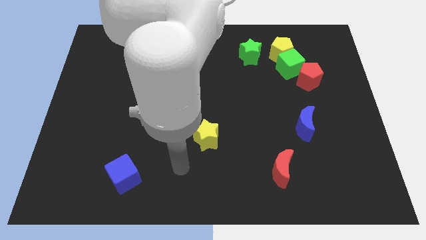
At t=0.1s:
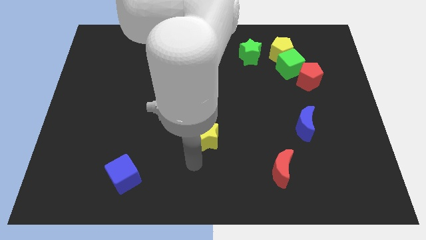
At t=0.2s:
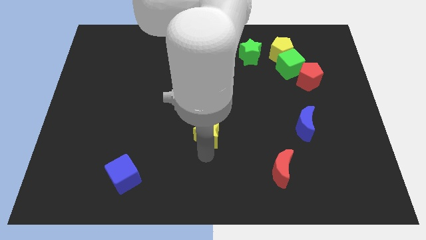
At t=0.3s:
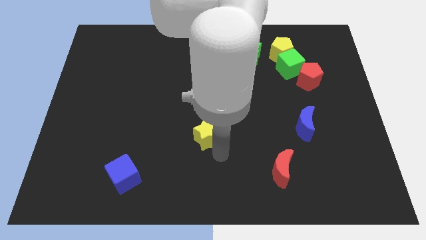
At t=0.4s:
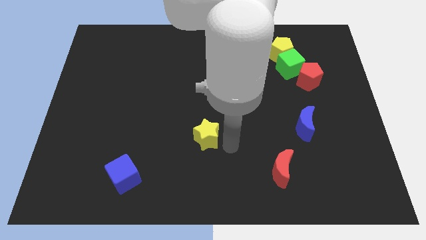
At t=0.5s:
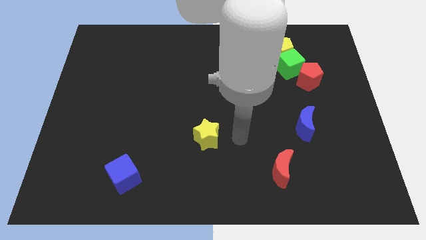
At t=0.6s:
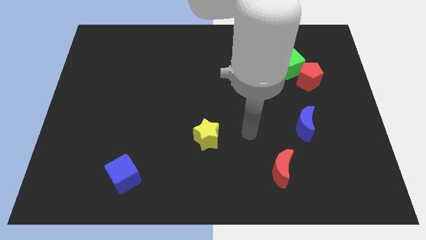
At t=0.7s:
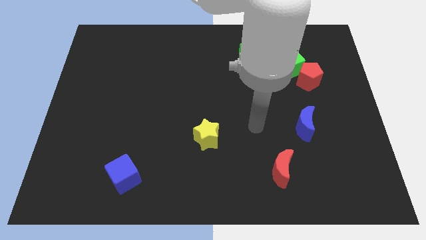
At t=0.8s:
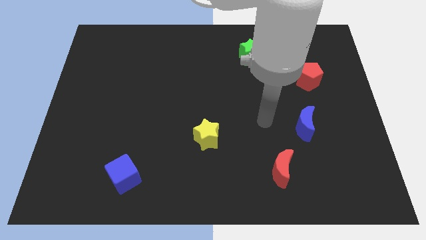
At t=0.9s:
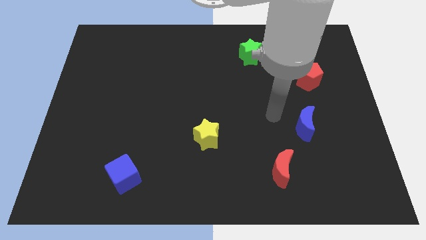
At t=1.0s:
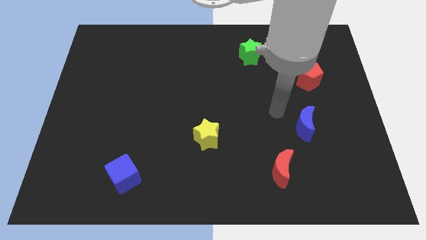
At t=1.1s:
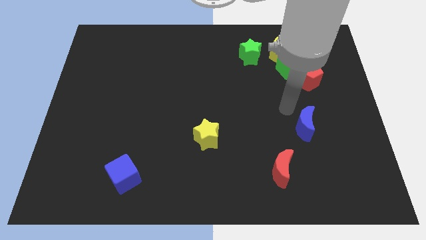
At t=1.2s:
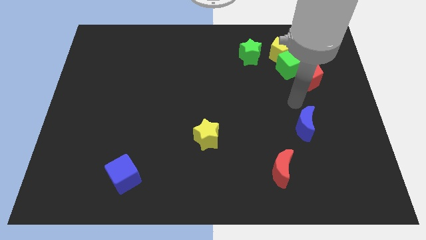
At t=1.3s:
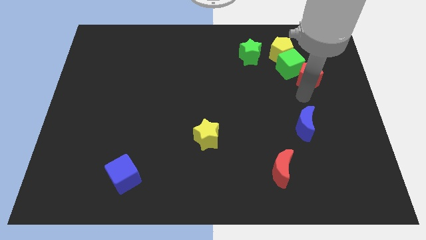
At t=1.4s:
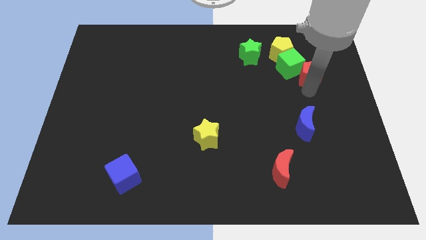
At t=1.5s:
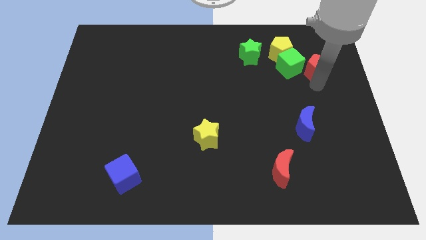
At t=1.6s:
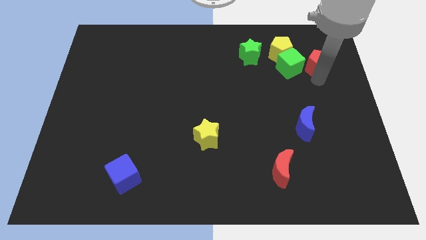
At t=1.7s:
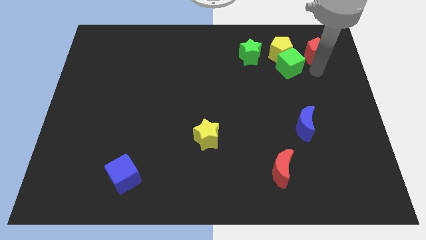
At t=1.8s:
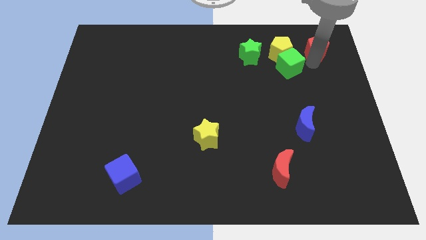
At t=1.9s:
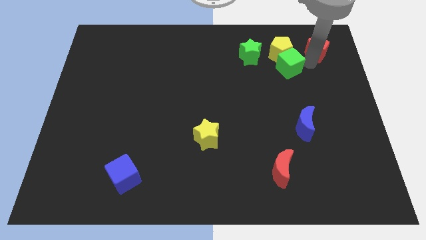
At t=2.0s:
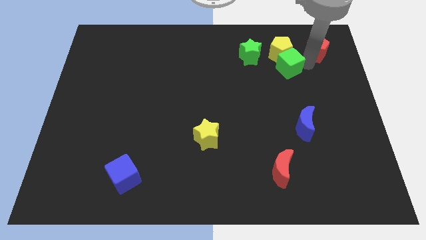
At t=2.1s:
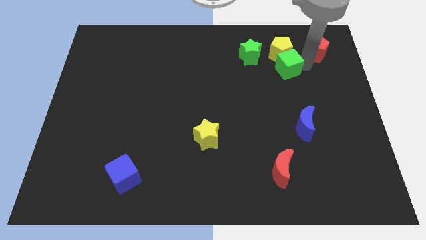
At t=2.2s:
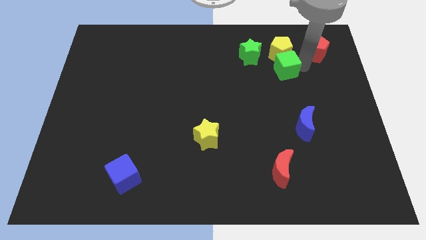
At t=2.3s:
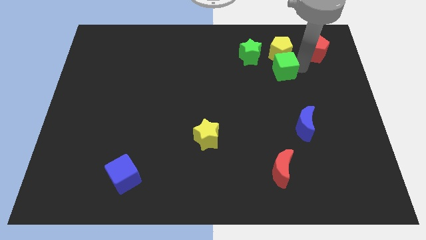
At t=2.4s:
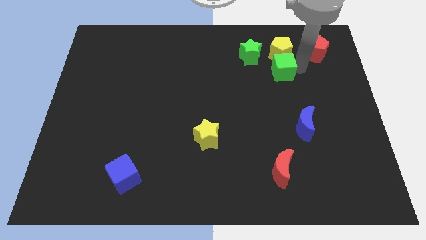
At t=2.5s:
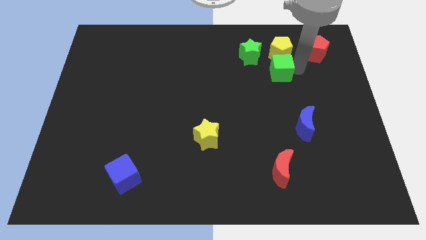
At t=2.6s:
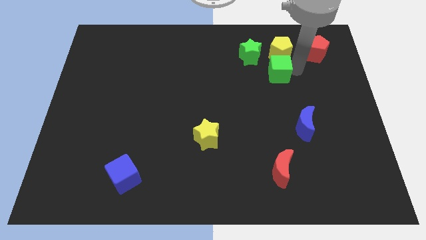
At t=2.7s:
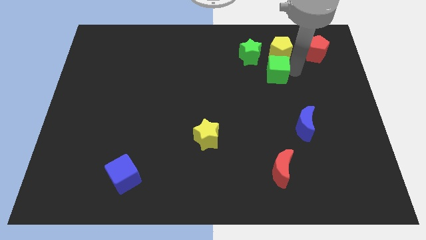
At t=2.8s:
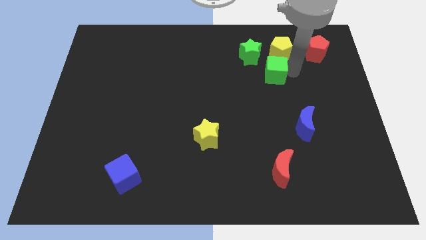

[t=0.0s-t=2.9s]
move the green cube away from the yellow pentagon and red pentagon

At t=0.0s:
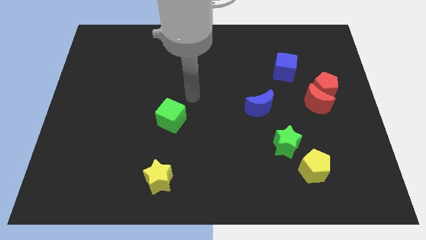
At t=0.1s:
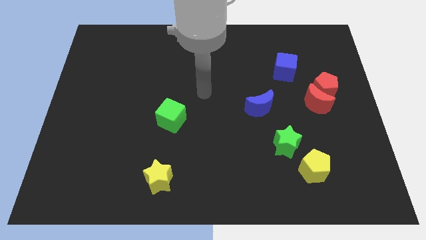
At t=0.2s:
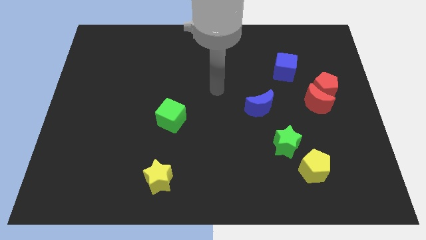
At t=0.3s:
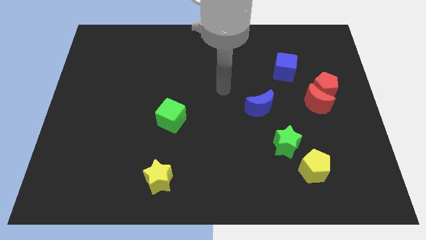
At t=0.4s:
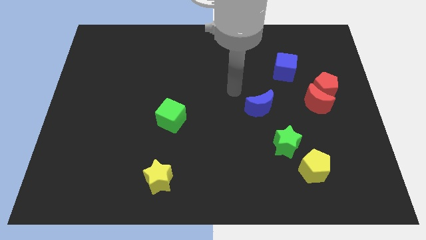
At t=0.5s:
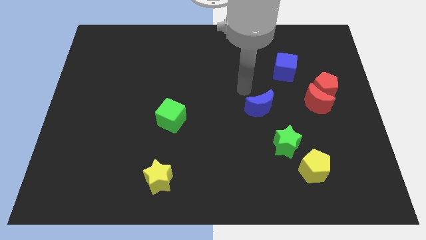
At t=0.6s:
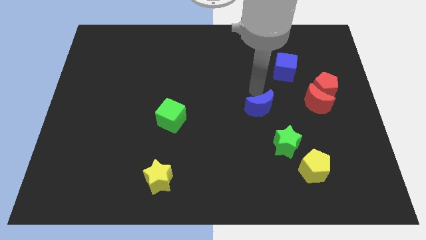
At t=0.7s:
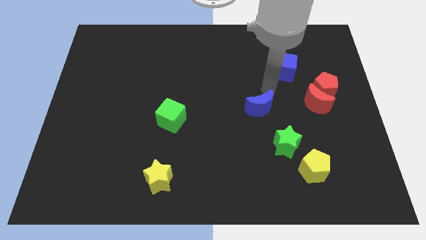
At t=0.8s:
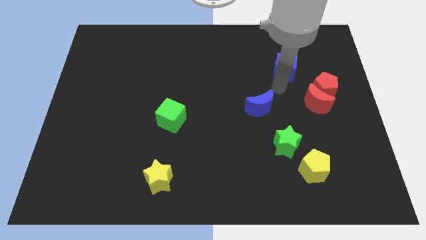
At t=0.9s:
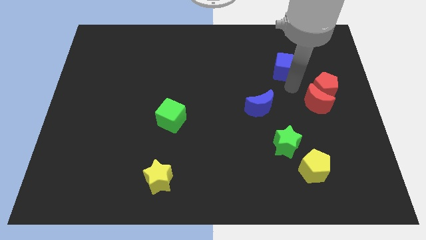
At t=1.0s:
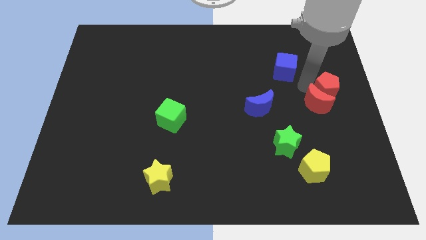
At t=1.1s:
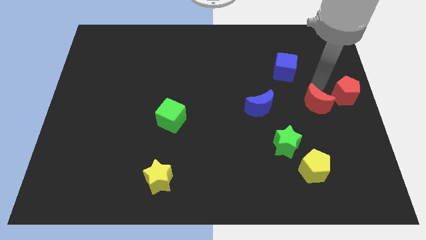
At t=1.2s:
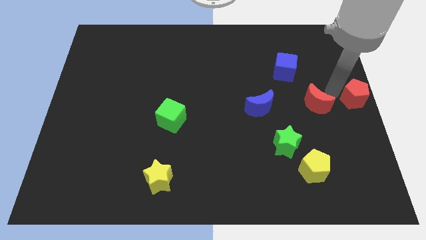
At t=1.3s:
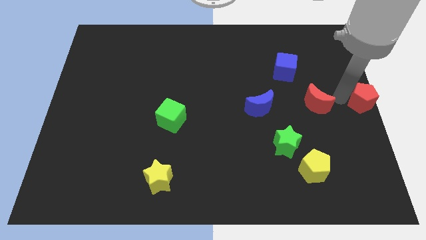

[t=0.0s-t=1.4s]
move the red moon away from the red pentagon

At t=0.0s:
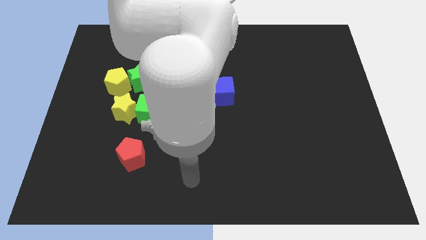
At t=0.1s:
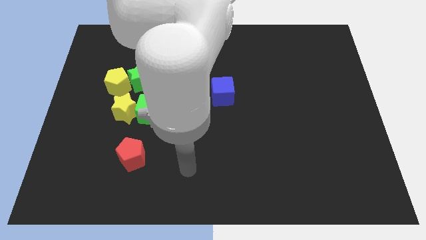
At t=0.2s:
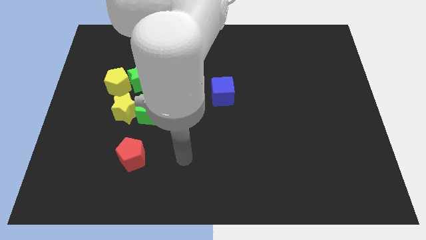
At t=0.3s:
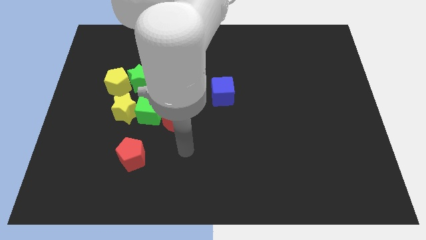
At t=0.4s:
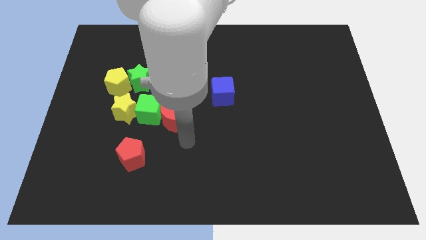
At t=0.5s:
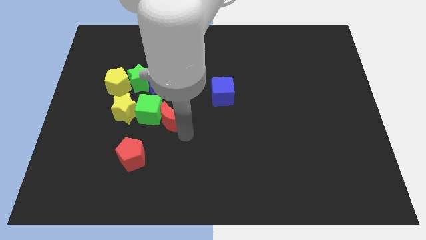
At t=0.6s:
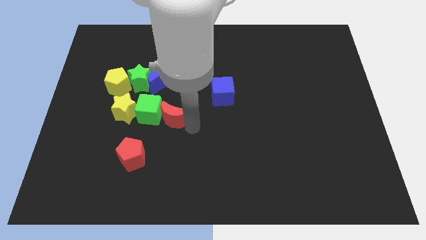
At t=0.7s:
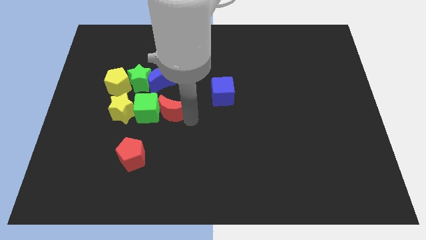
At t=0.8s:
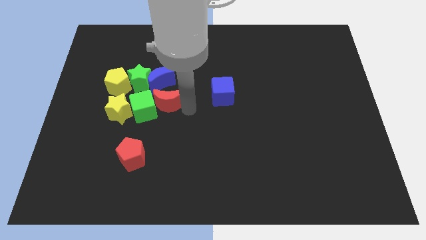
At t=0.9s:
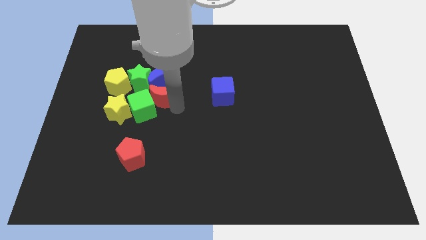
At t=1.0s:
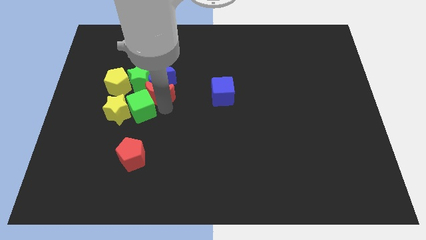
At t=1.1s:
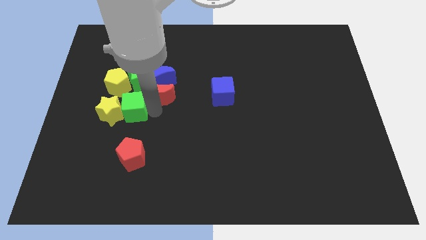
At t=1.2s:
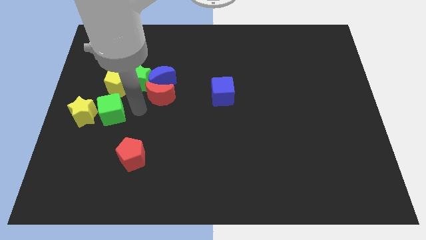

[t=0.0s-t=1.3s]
separate the red moon from the green cube

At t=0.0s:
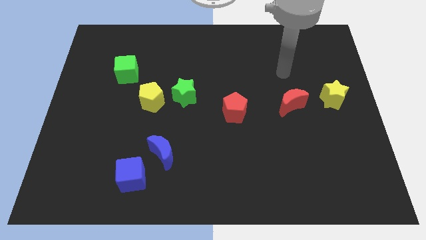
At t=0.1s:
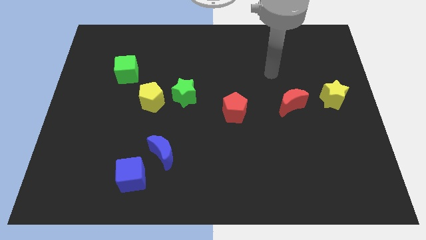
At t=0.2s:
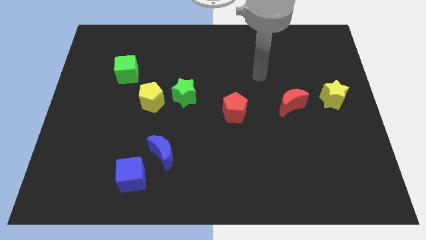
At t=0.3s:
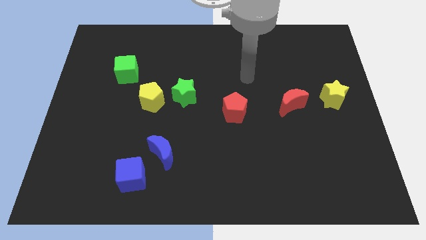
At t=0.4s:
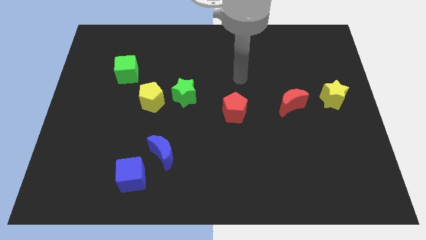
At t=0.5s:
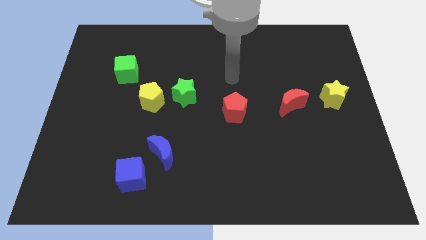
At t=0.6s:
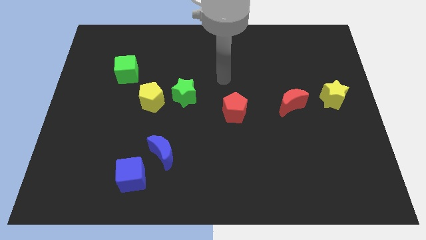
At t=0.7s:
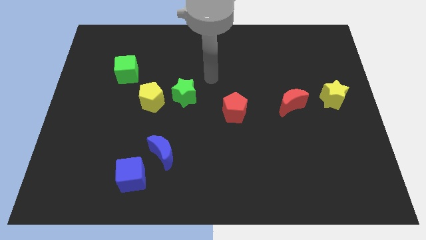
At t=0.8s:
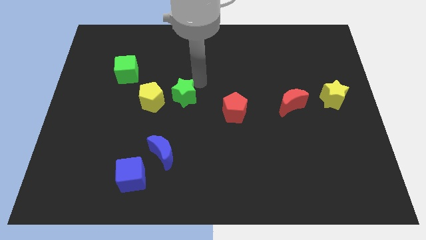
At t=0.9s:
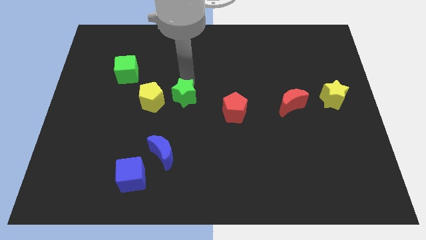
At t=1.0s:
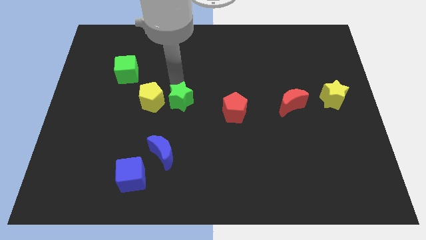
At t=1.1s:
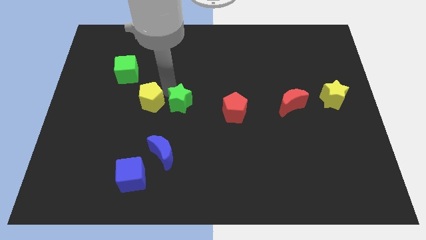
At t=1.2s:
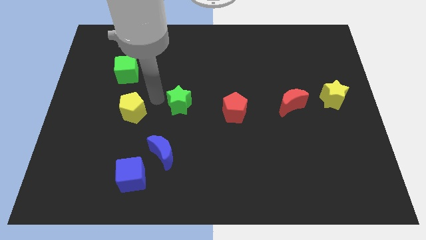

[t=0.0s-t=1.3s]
pull the green star apart from the yellow pentagon

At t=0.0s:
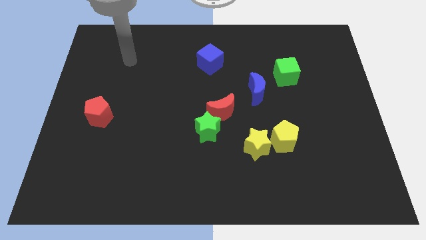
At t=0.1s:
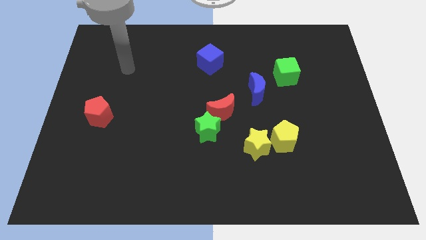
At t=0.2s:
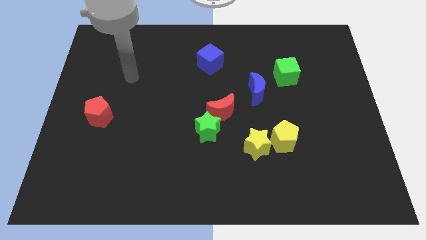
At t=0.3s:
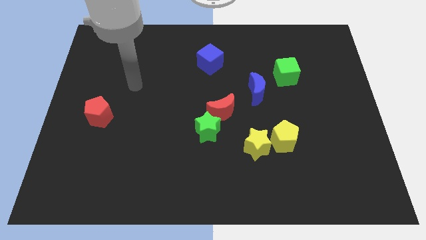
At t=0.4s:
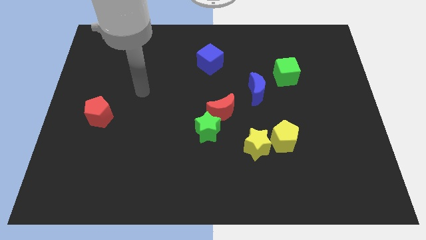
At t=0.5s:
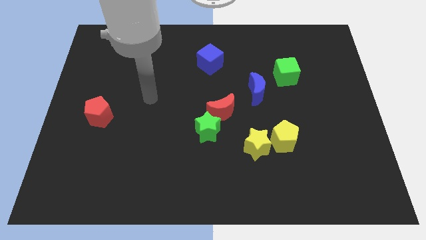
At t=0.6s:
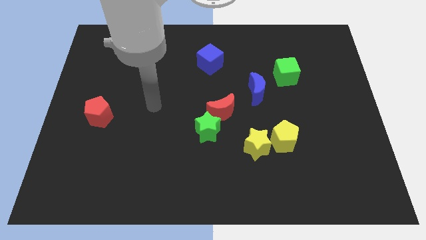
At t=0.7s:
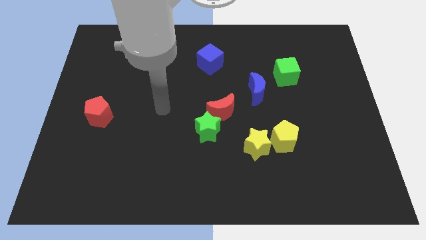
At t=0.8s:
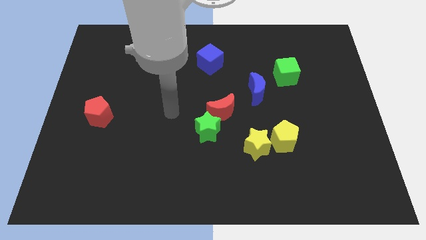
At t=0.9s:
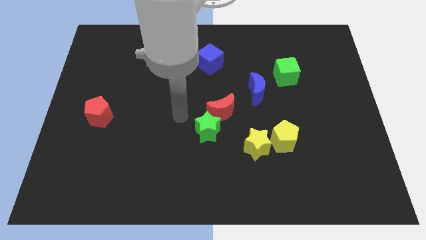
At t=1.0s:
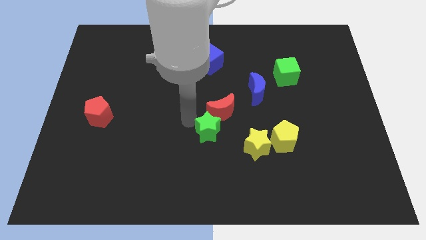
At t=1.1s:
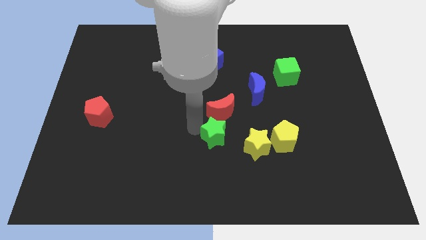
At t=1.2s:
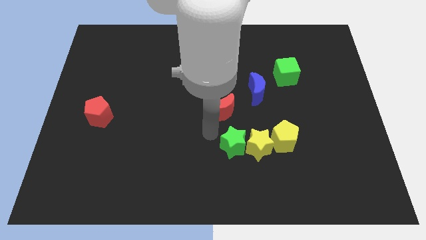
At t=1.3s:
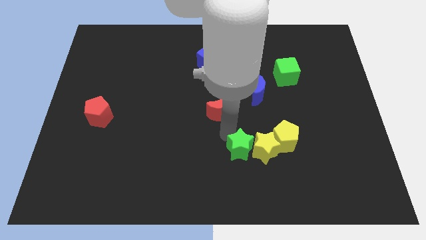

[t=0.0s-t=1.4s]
pull the red moon apart from the green star

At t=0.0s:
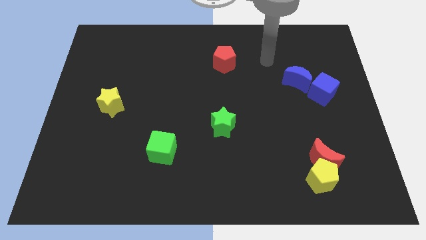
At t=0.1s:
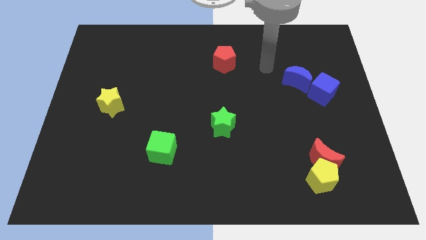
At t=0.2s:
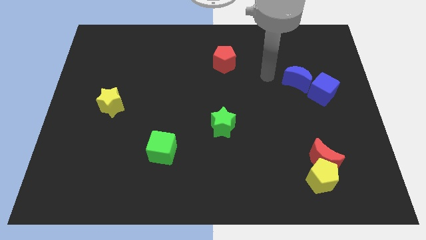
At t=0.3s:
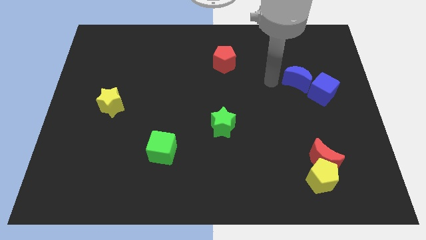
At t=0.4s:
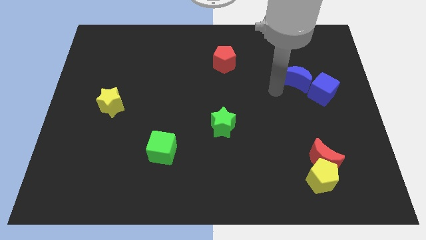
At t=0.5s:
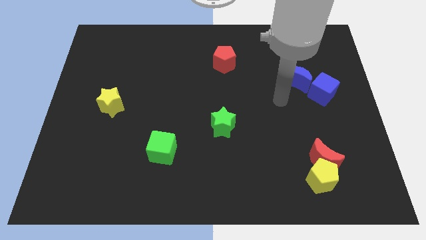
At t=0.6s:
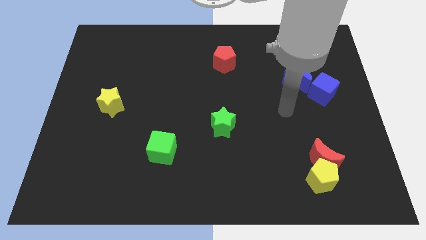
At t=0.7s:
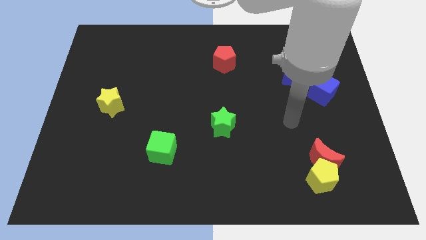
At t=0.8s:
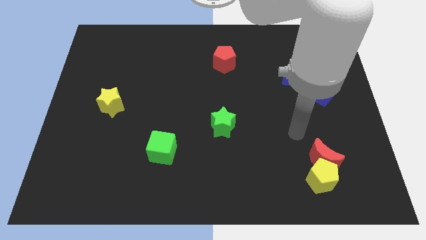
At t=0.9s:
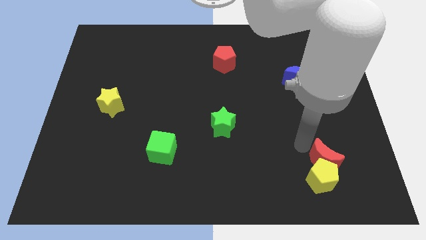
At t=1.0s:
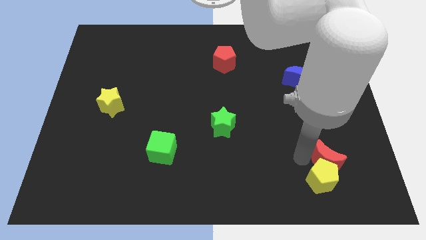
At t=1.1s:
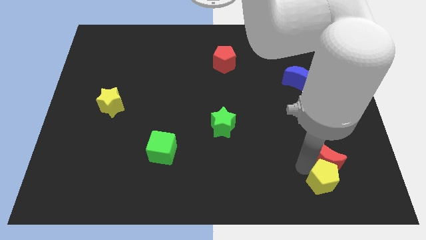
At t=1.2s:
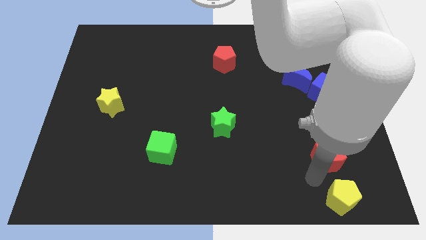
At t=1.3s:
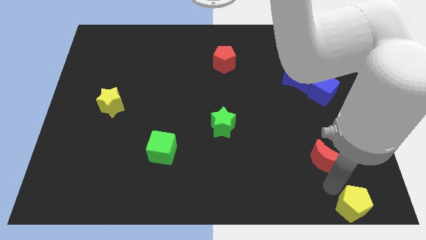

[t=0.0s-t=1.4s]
pull the red moon apart from the yellow pentagon
